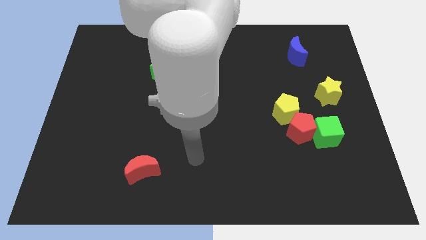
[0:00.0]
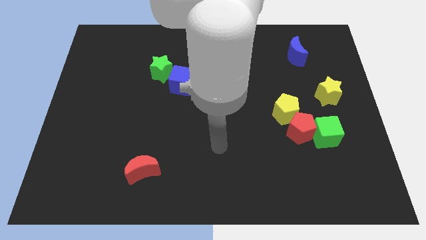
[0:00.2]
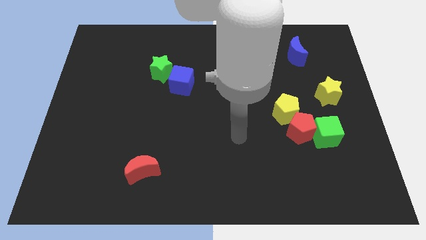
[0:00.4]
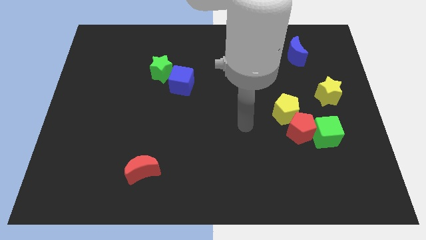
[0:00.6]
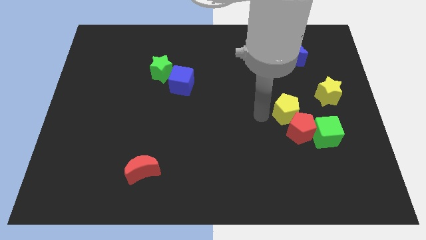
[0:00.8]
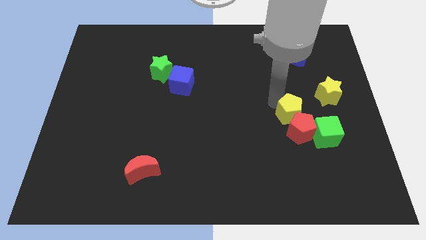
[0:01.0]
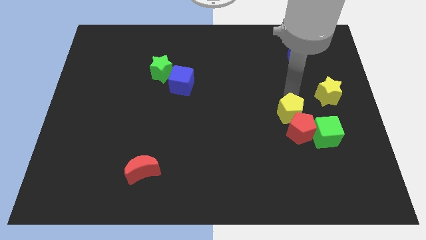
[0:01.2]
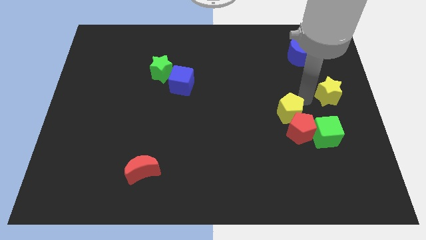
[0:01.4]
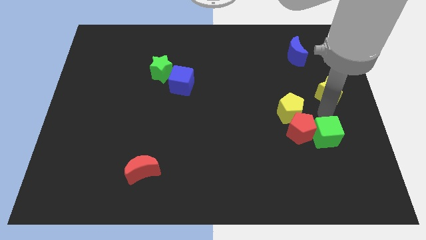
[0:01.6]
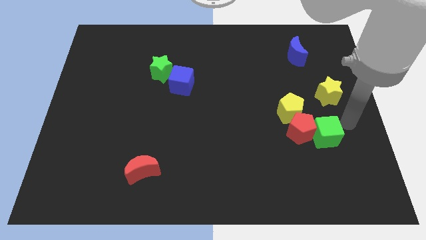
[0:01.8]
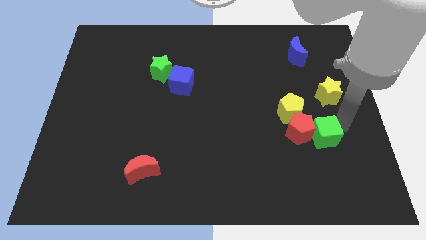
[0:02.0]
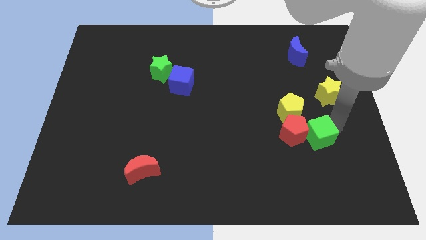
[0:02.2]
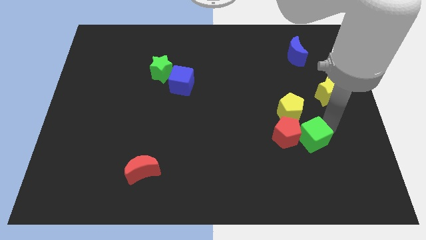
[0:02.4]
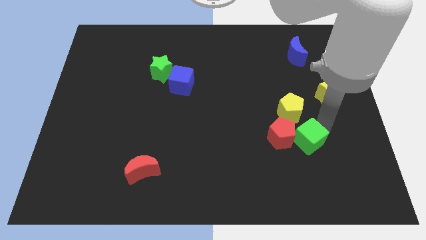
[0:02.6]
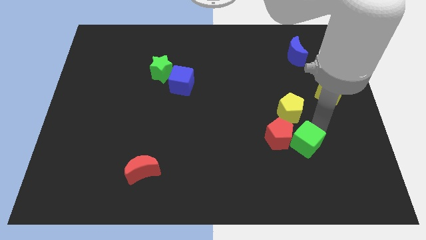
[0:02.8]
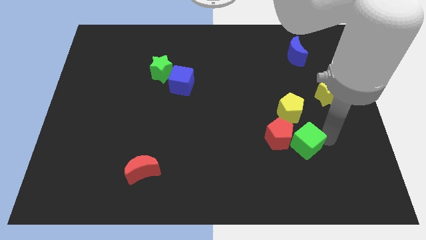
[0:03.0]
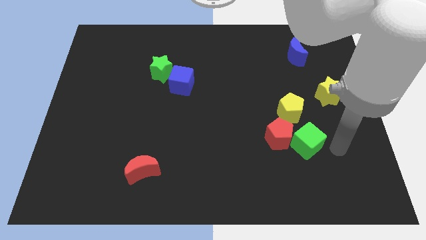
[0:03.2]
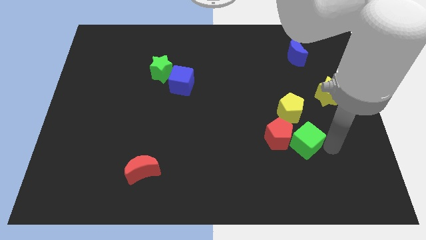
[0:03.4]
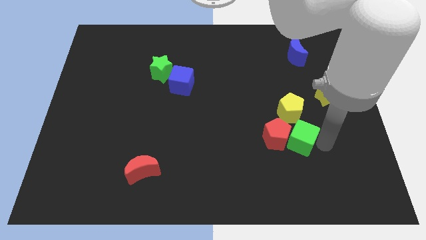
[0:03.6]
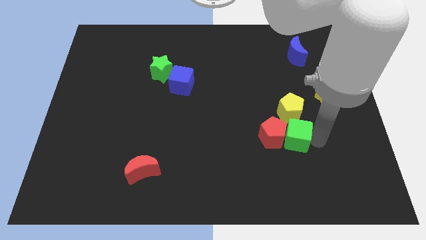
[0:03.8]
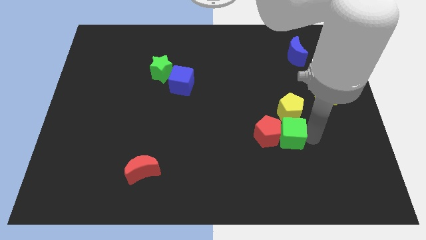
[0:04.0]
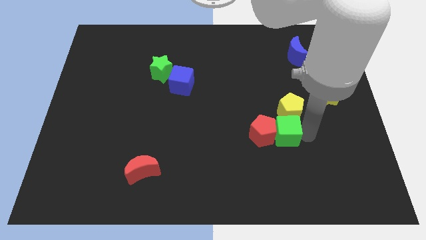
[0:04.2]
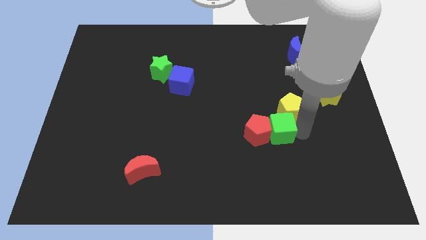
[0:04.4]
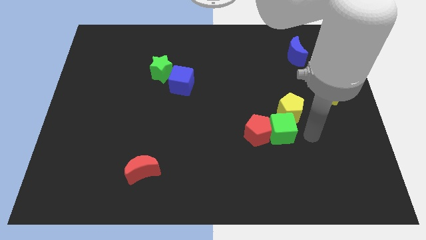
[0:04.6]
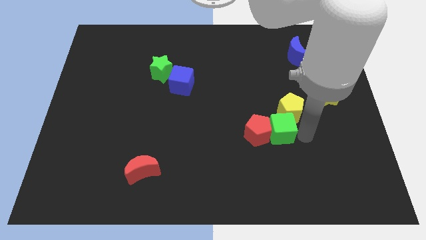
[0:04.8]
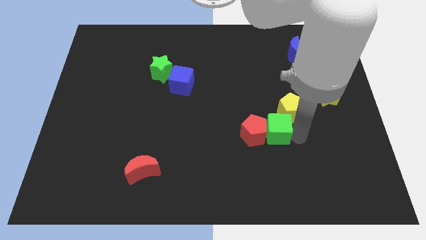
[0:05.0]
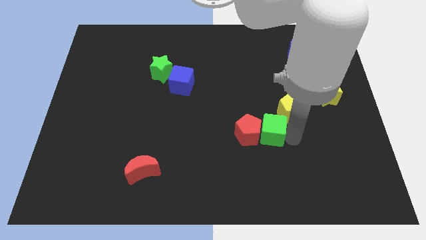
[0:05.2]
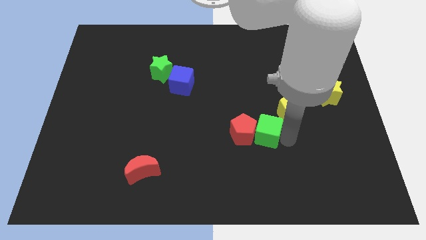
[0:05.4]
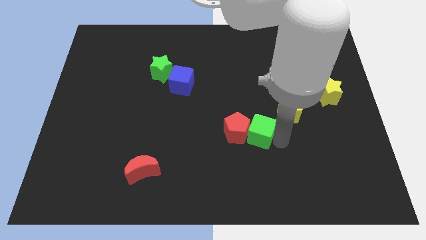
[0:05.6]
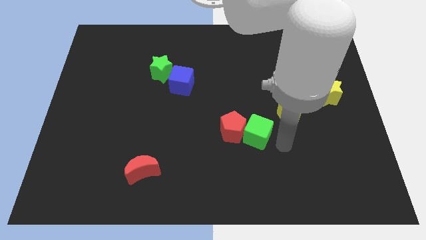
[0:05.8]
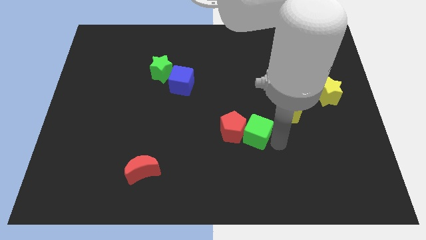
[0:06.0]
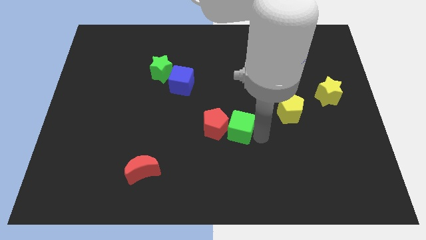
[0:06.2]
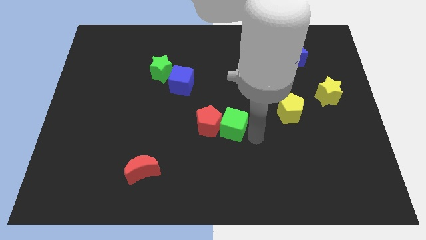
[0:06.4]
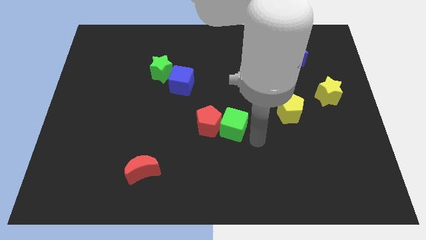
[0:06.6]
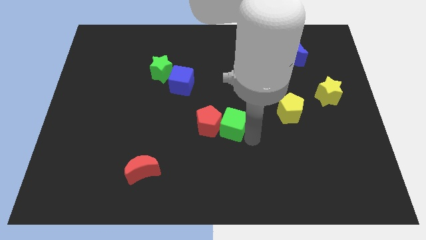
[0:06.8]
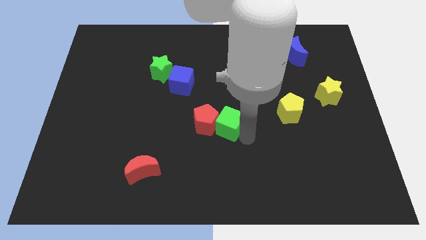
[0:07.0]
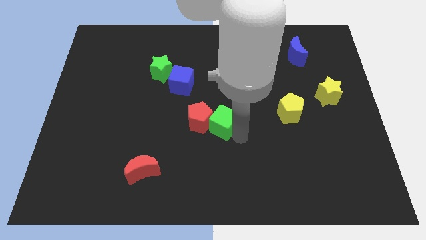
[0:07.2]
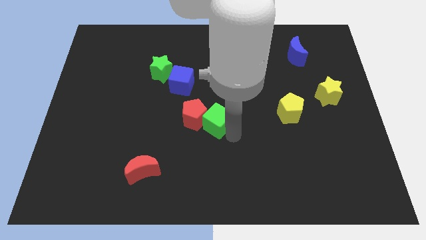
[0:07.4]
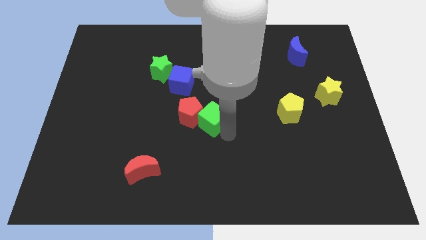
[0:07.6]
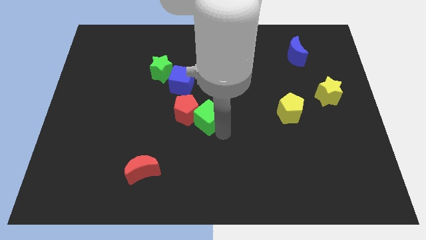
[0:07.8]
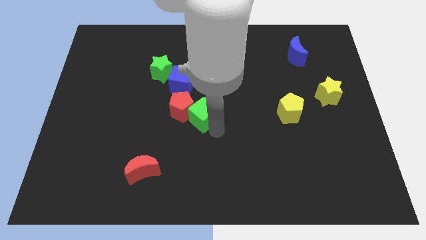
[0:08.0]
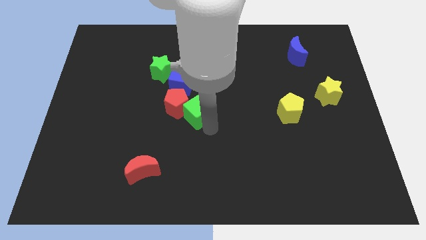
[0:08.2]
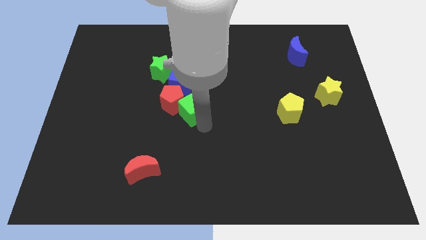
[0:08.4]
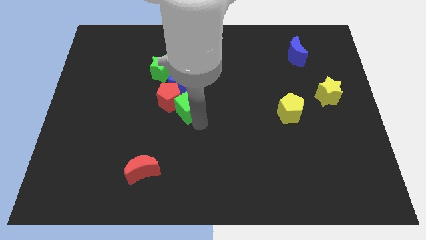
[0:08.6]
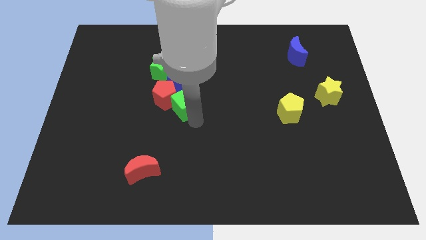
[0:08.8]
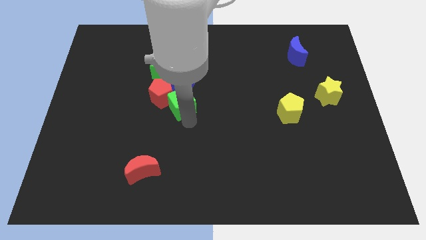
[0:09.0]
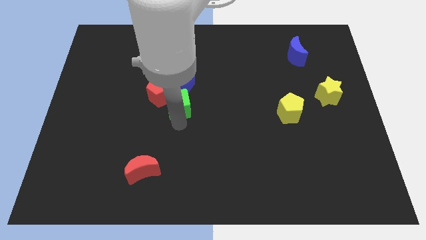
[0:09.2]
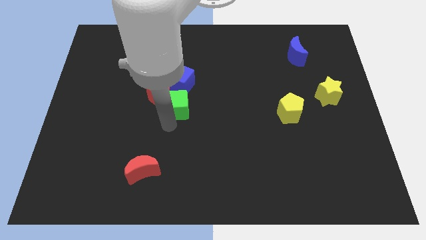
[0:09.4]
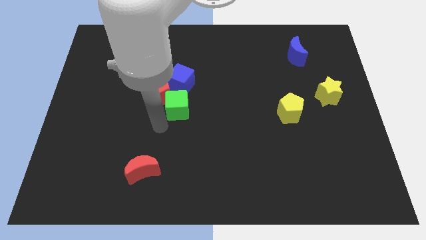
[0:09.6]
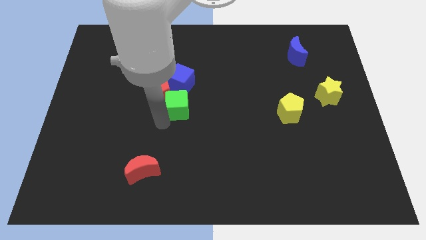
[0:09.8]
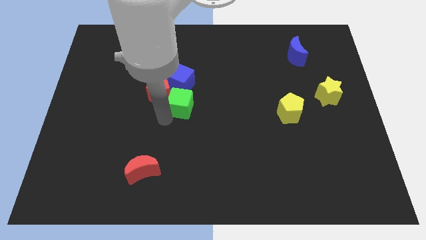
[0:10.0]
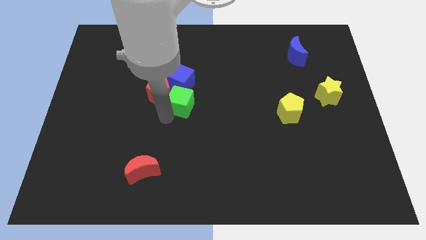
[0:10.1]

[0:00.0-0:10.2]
slide the green cube diagonally down and to the right of the green star

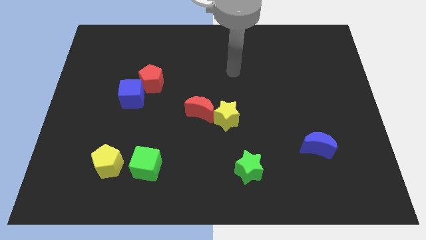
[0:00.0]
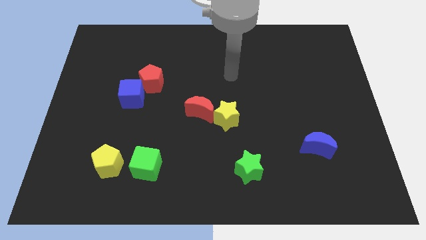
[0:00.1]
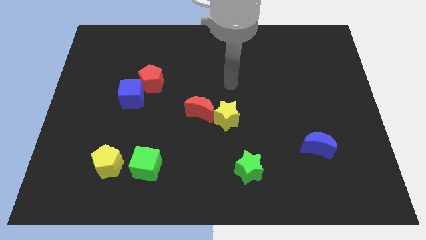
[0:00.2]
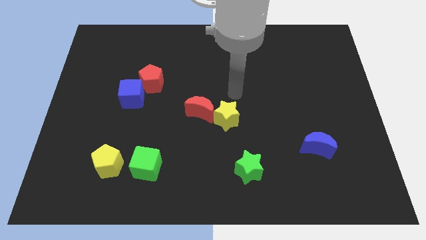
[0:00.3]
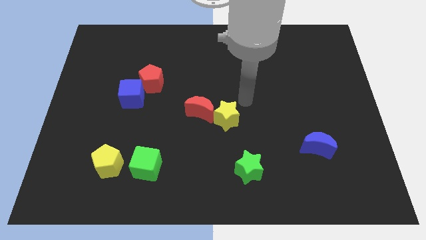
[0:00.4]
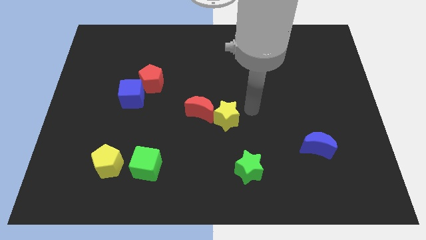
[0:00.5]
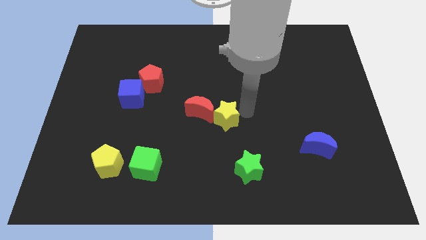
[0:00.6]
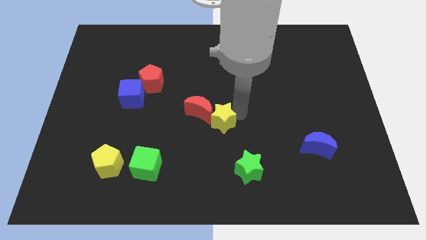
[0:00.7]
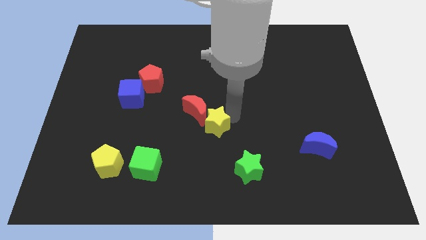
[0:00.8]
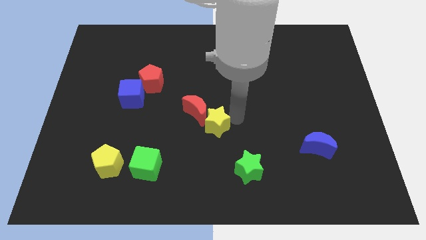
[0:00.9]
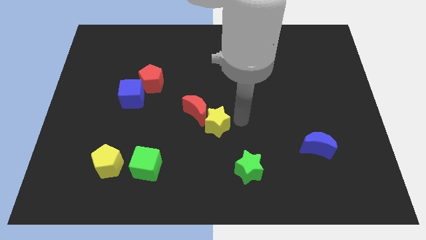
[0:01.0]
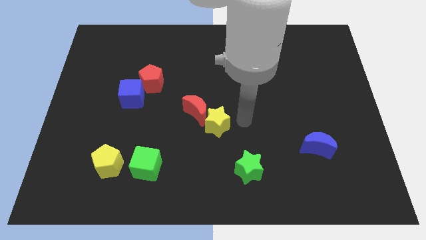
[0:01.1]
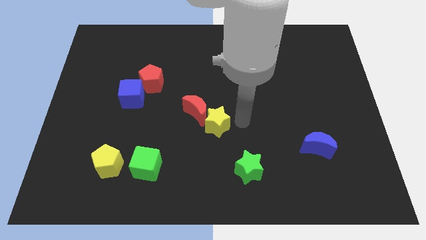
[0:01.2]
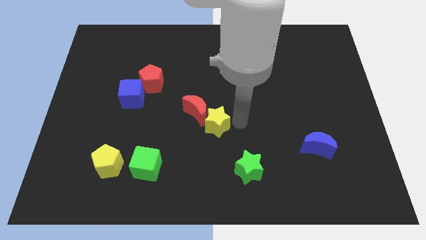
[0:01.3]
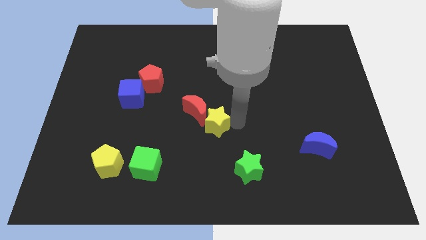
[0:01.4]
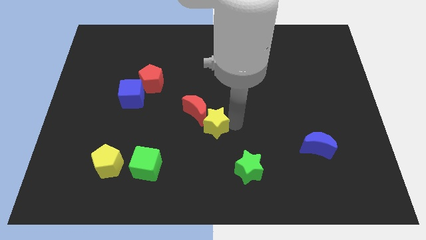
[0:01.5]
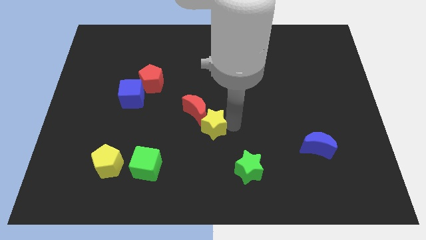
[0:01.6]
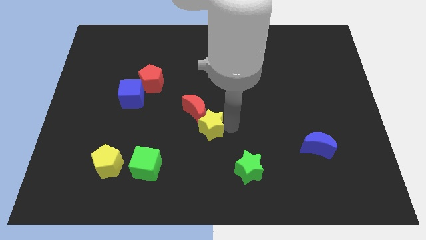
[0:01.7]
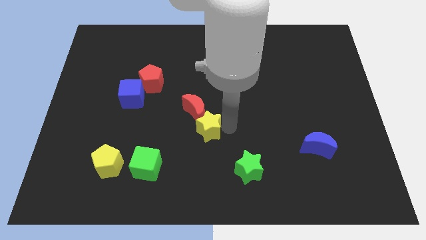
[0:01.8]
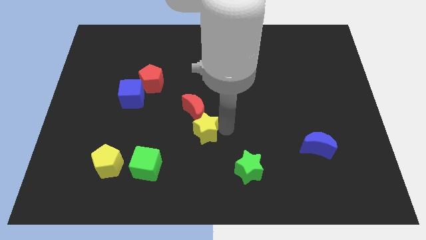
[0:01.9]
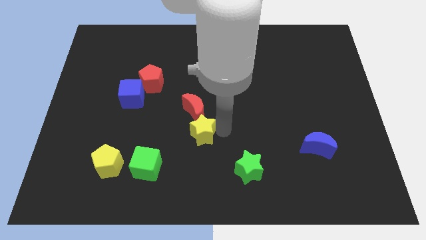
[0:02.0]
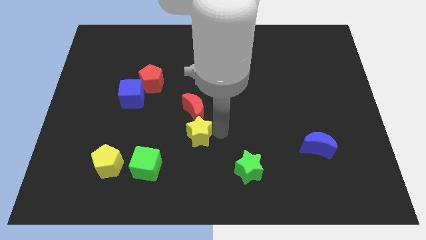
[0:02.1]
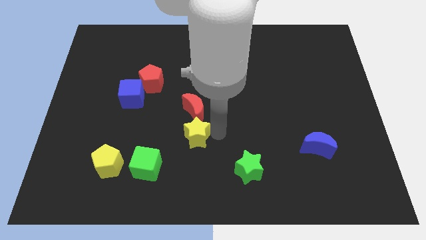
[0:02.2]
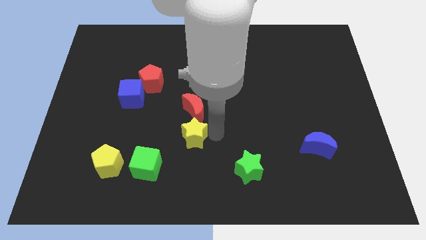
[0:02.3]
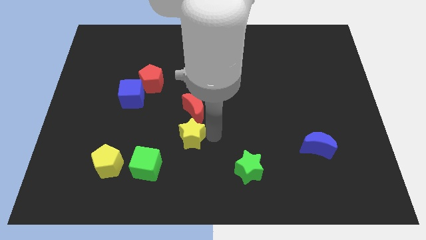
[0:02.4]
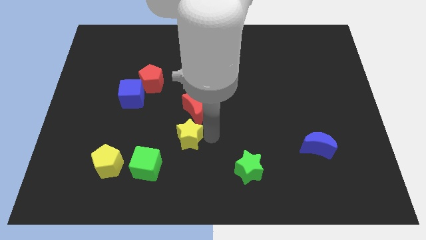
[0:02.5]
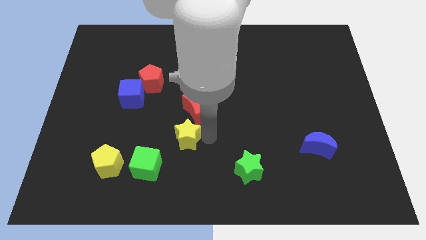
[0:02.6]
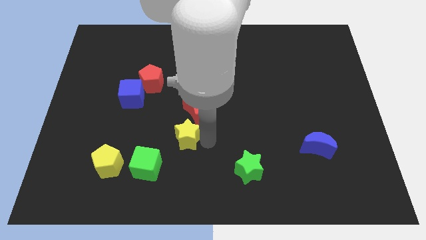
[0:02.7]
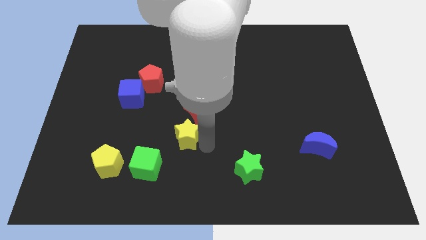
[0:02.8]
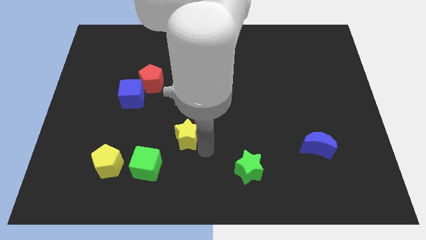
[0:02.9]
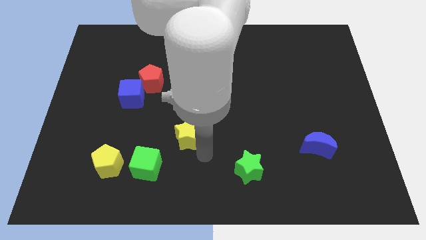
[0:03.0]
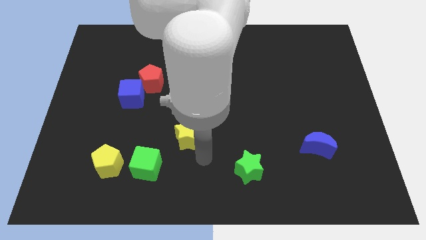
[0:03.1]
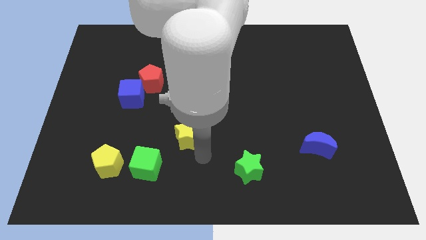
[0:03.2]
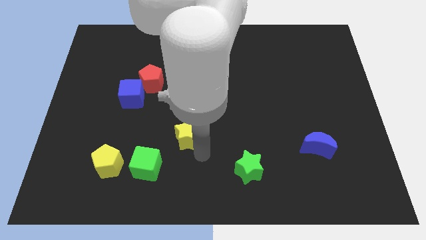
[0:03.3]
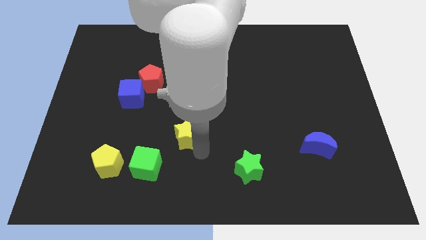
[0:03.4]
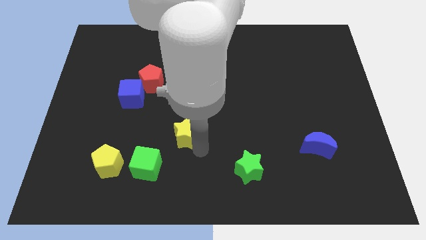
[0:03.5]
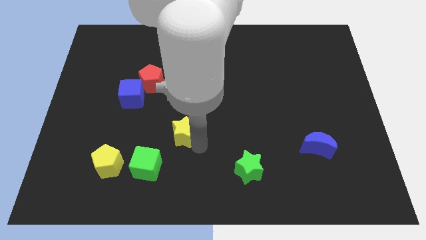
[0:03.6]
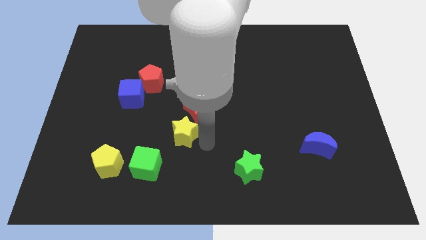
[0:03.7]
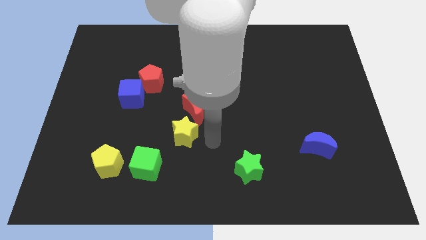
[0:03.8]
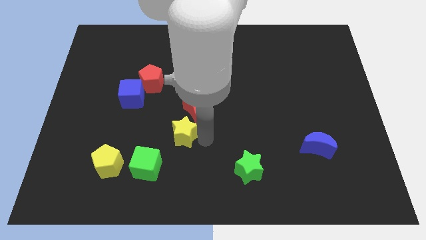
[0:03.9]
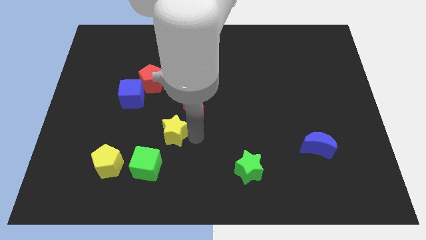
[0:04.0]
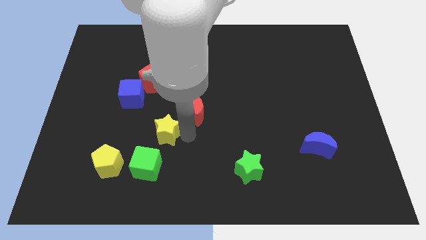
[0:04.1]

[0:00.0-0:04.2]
put the yellow star above the green cube
